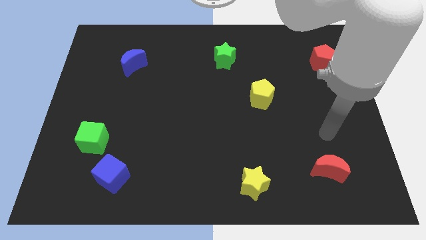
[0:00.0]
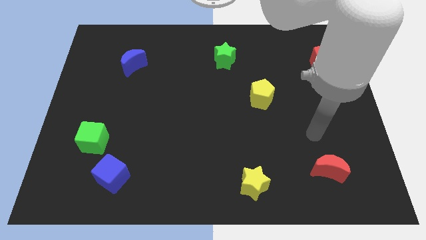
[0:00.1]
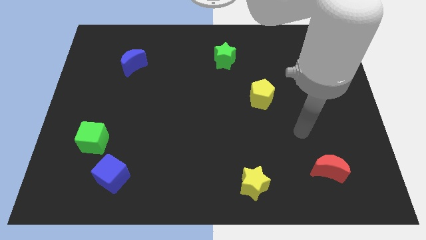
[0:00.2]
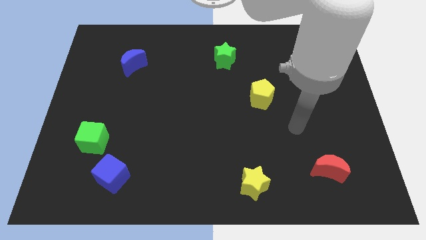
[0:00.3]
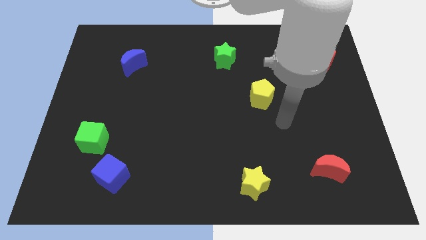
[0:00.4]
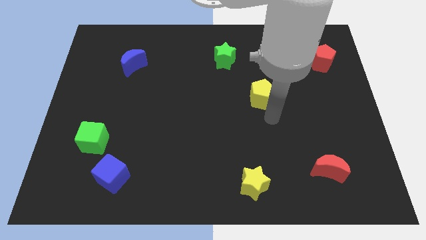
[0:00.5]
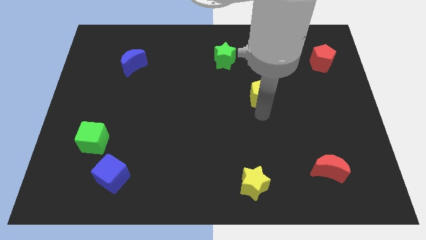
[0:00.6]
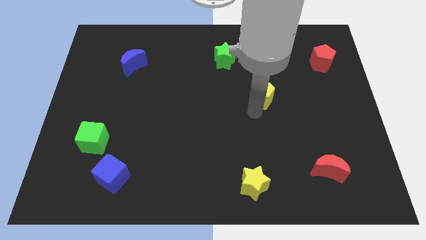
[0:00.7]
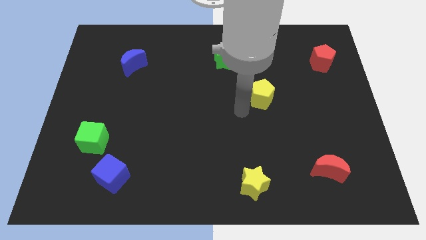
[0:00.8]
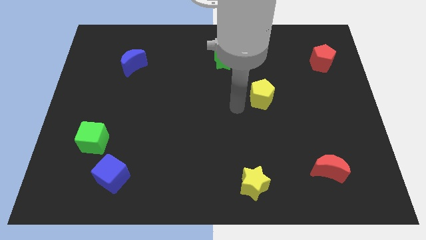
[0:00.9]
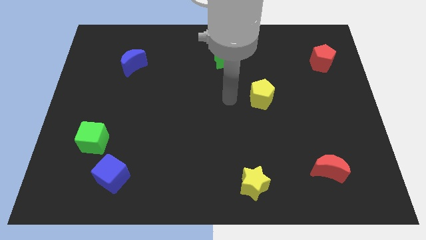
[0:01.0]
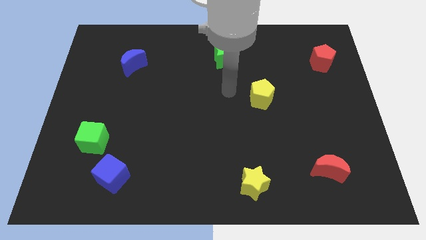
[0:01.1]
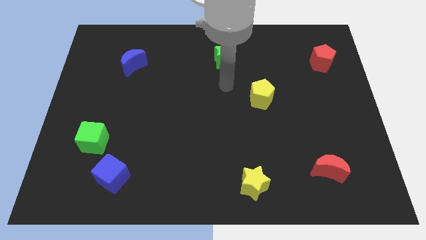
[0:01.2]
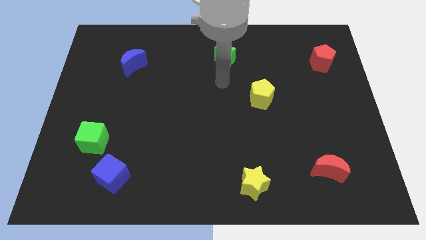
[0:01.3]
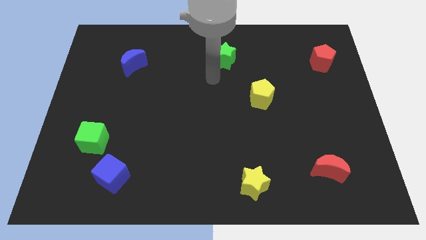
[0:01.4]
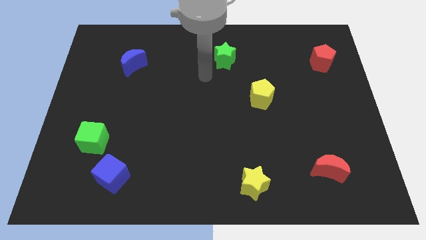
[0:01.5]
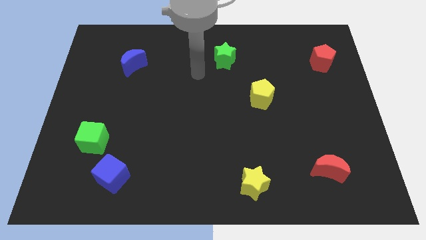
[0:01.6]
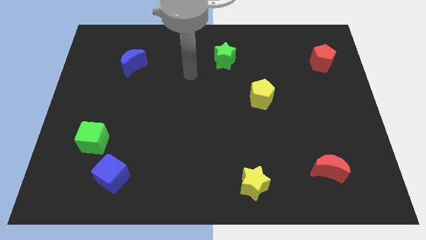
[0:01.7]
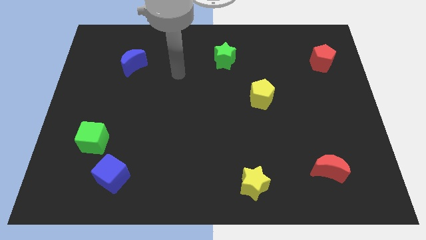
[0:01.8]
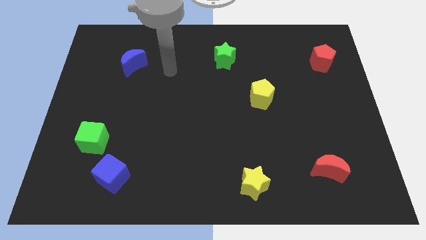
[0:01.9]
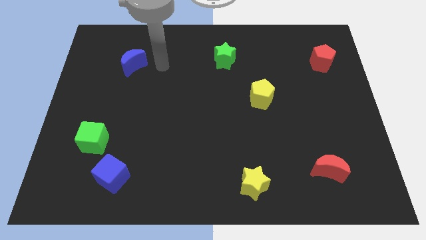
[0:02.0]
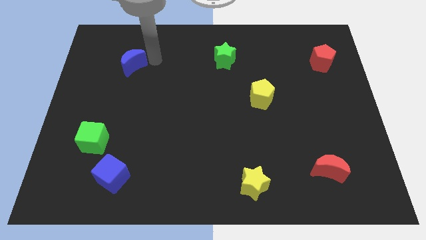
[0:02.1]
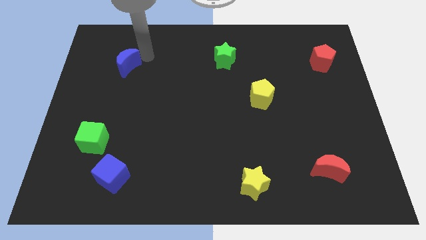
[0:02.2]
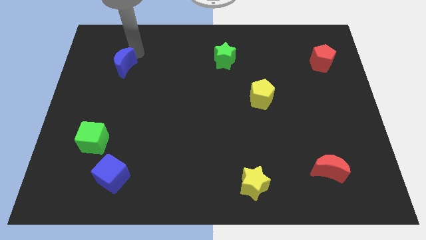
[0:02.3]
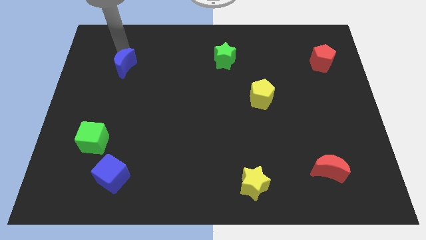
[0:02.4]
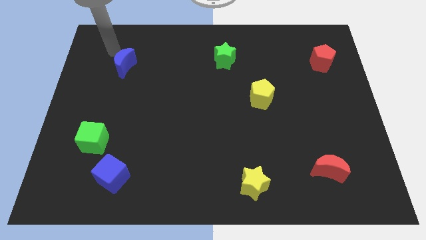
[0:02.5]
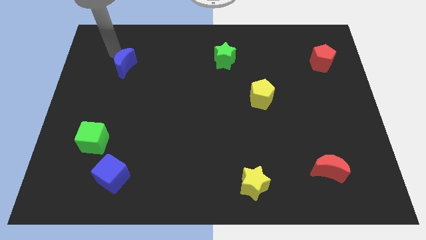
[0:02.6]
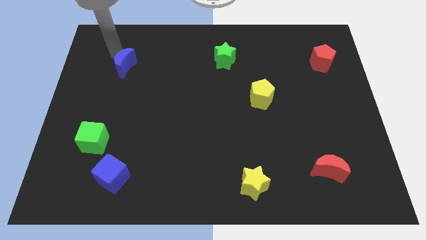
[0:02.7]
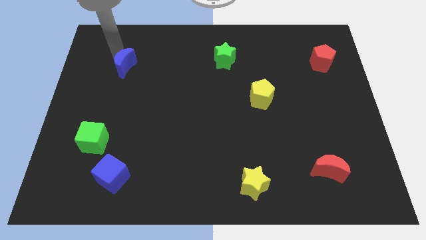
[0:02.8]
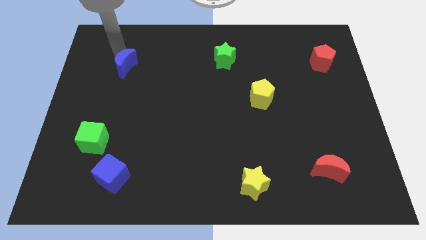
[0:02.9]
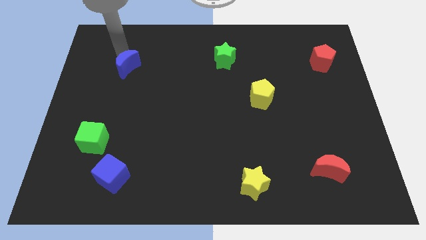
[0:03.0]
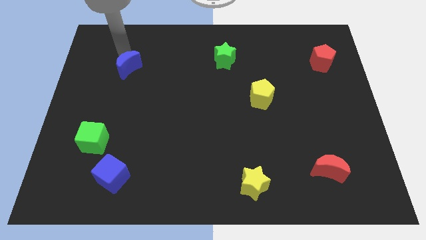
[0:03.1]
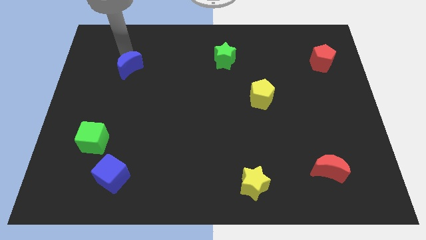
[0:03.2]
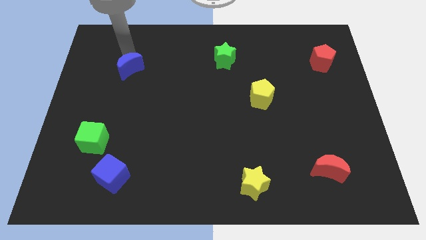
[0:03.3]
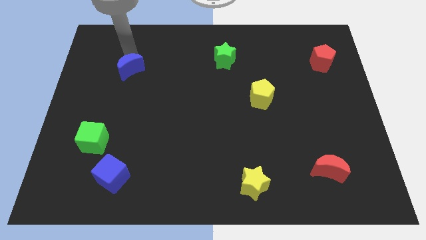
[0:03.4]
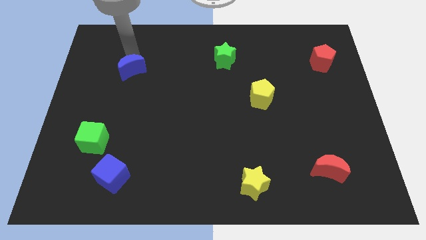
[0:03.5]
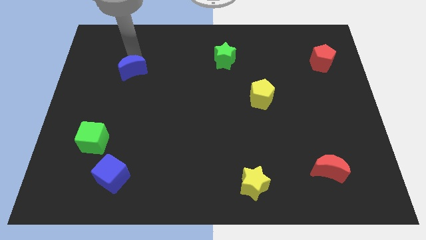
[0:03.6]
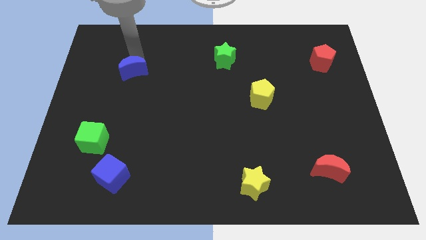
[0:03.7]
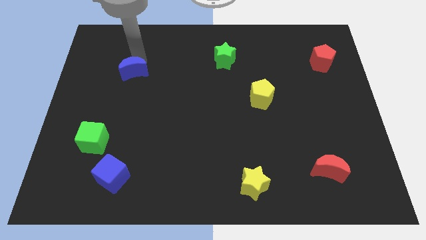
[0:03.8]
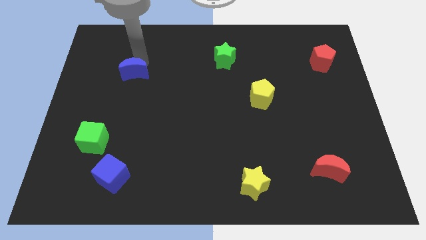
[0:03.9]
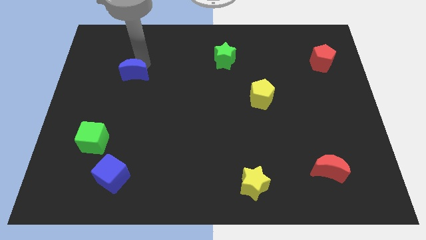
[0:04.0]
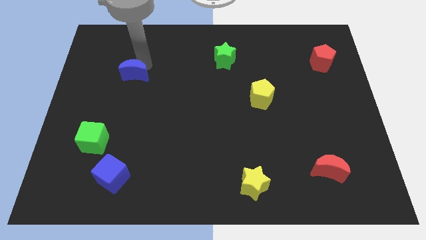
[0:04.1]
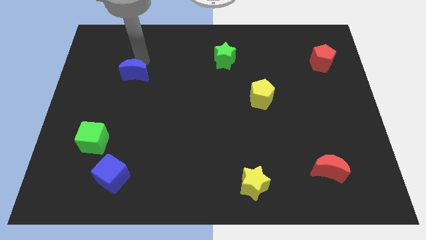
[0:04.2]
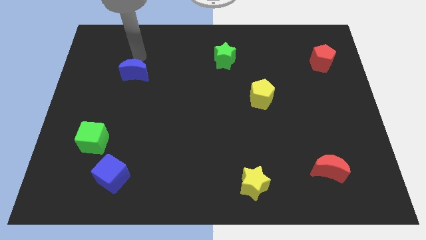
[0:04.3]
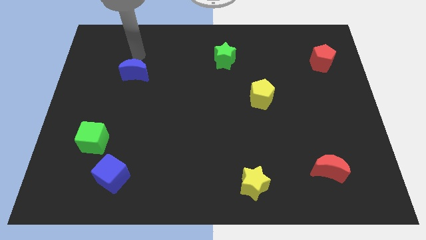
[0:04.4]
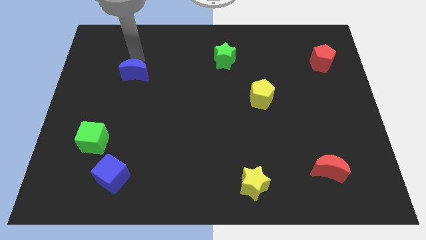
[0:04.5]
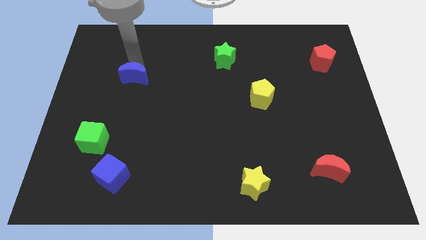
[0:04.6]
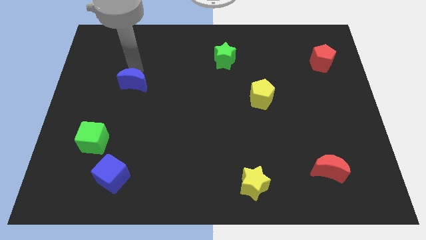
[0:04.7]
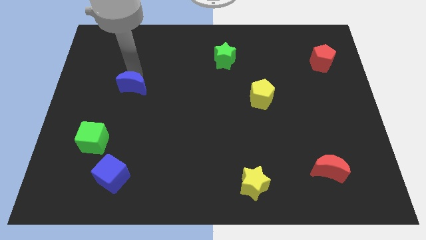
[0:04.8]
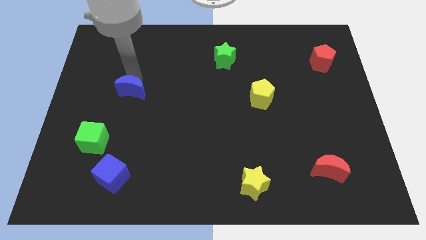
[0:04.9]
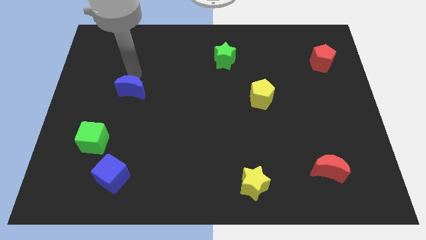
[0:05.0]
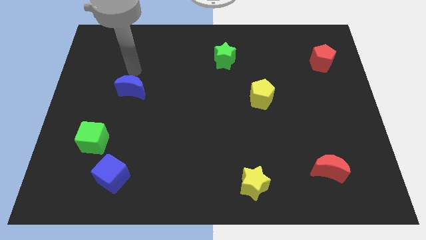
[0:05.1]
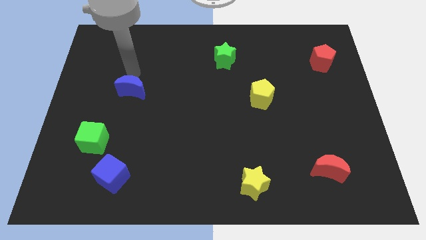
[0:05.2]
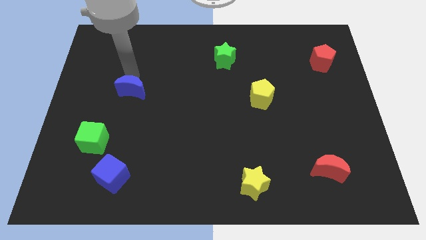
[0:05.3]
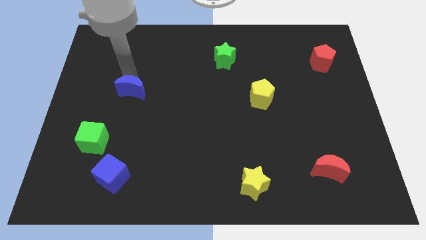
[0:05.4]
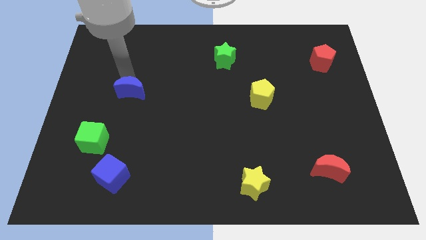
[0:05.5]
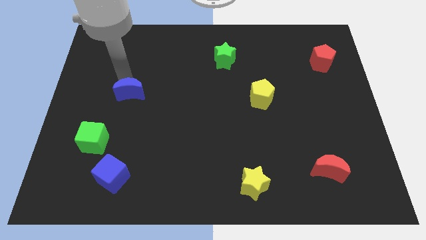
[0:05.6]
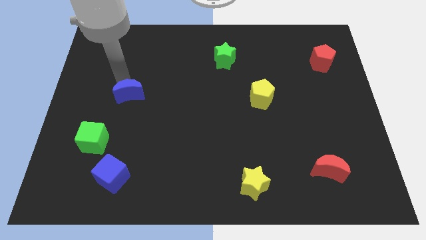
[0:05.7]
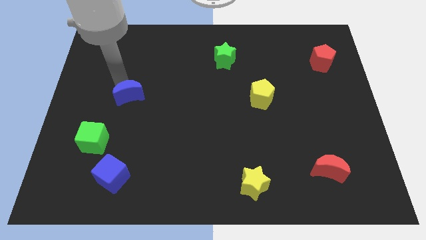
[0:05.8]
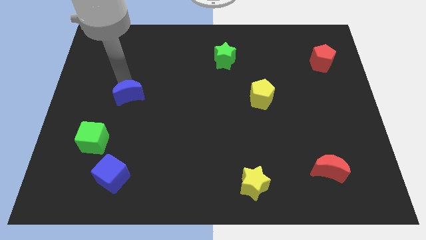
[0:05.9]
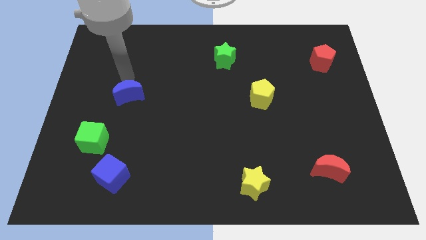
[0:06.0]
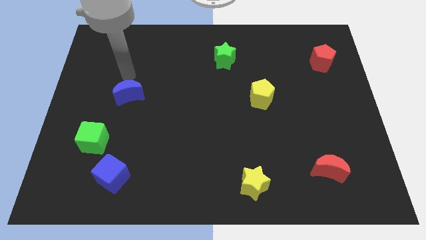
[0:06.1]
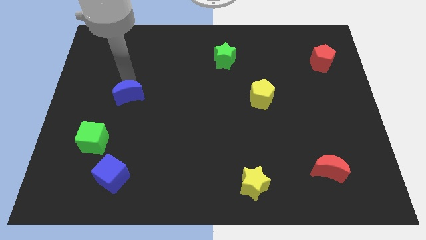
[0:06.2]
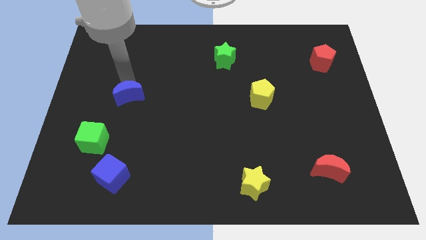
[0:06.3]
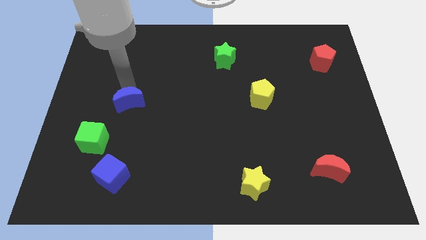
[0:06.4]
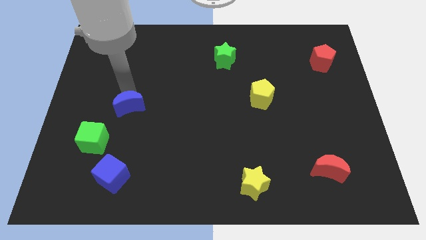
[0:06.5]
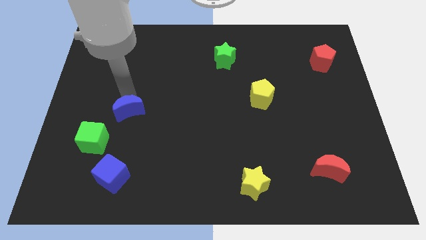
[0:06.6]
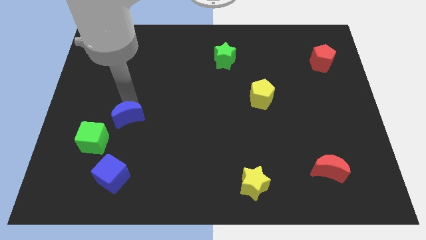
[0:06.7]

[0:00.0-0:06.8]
push the blue moon to the top side of the blue cube
